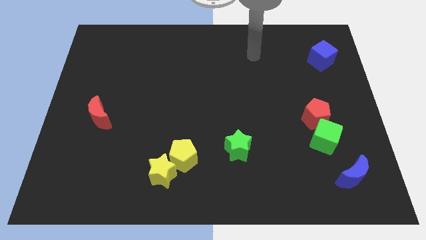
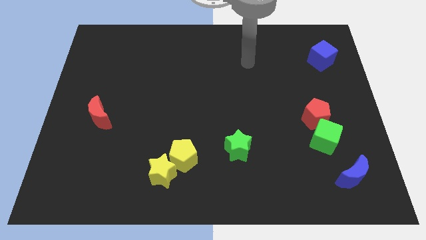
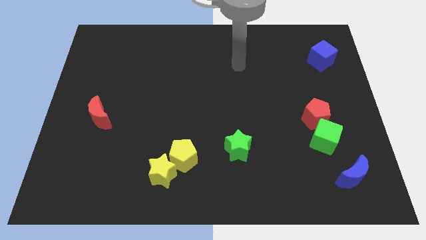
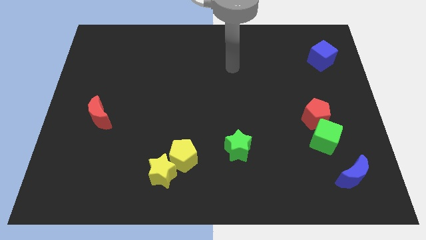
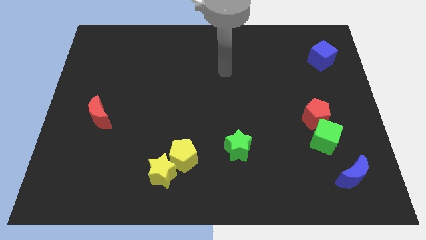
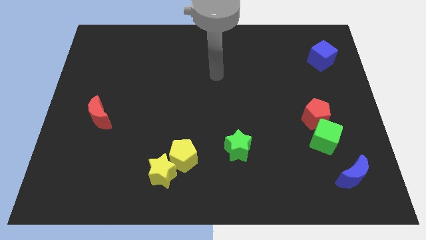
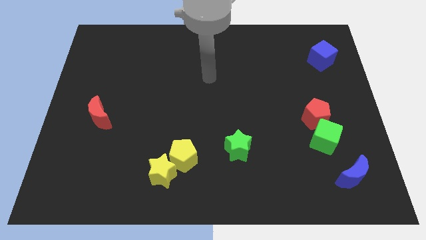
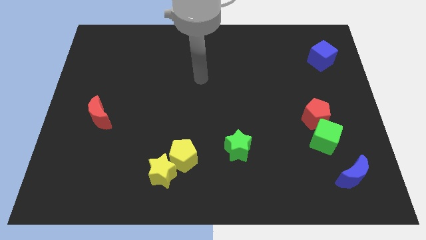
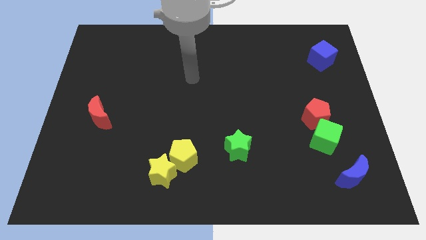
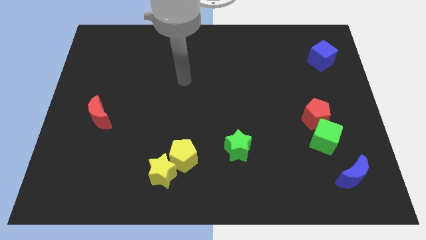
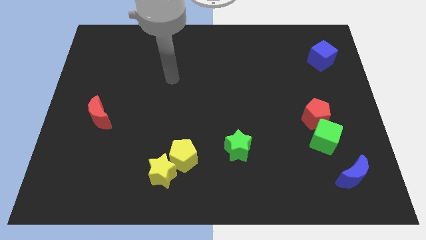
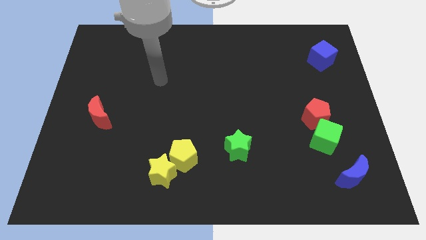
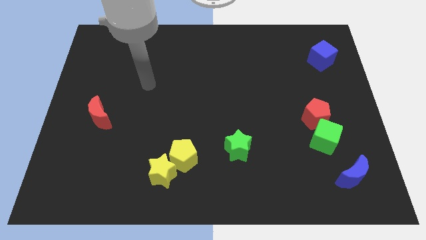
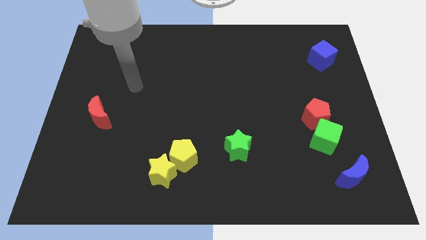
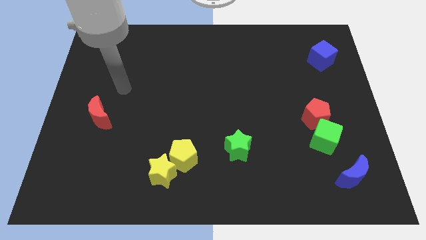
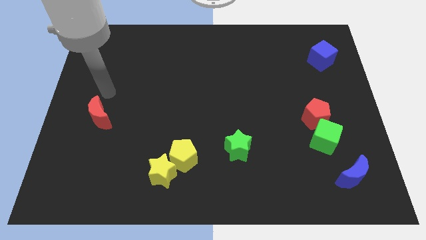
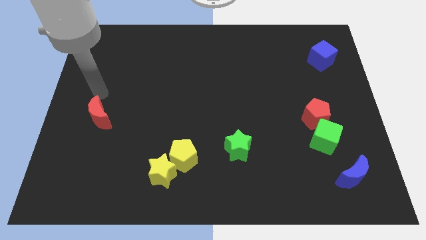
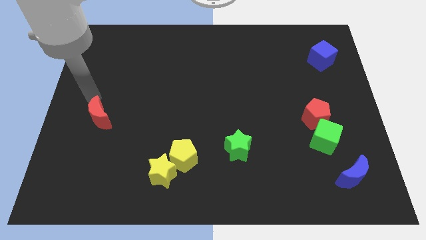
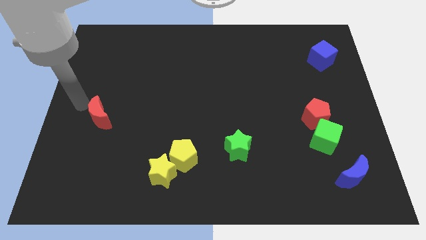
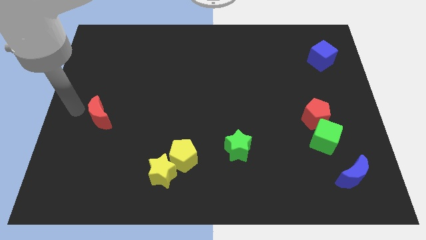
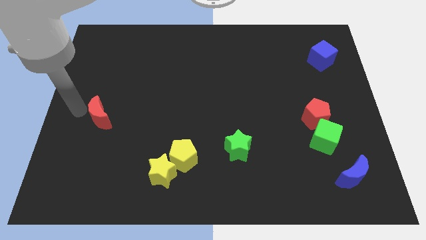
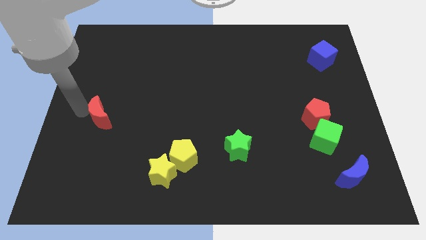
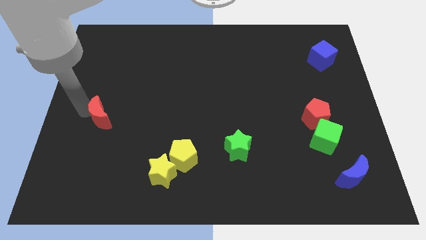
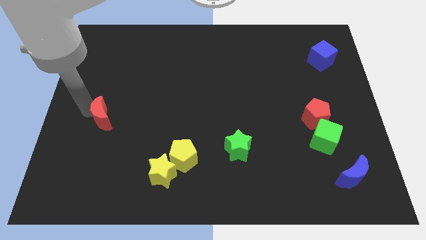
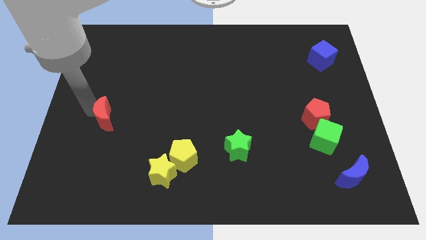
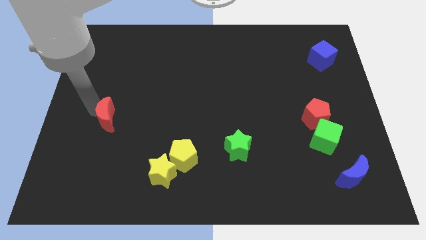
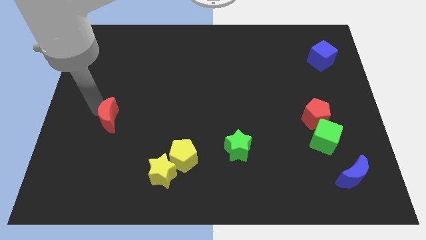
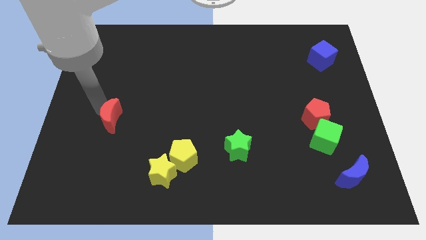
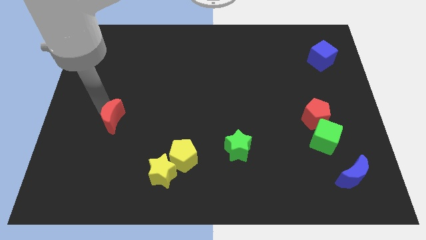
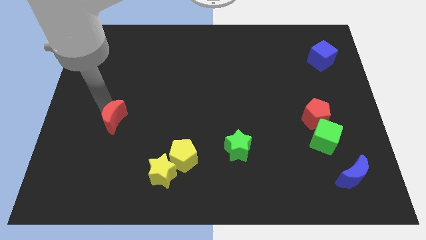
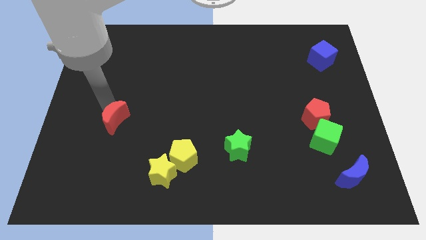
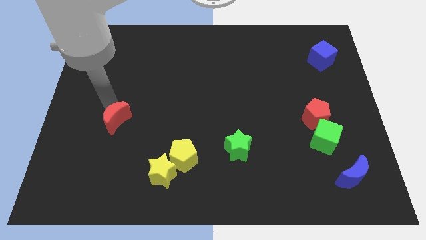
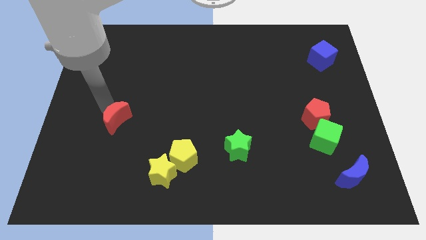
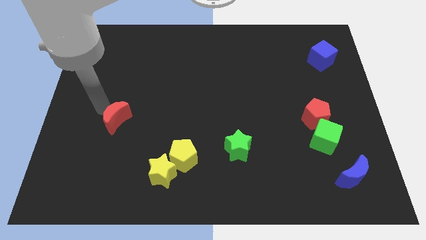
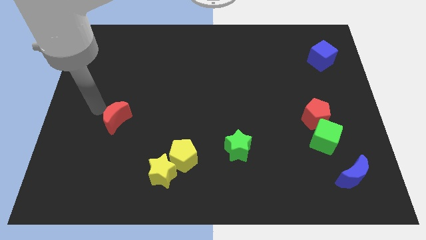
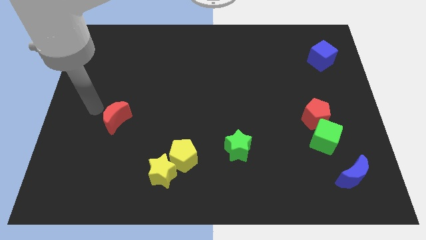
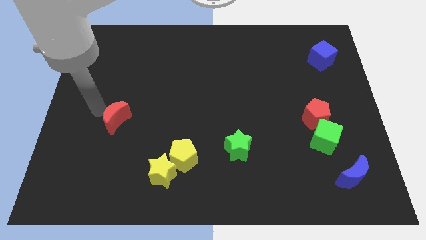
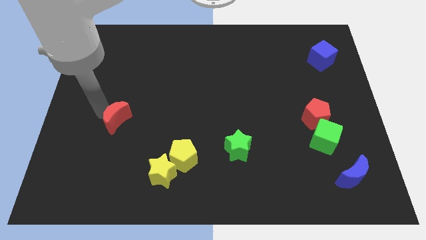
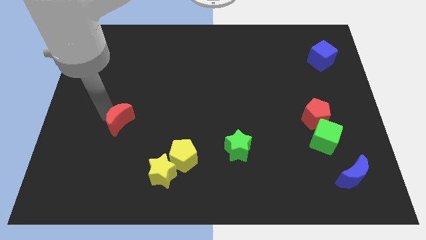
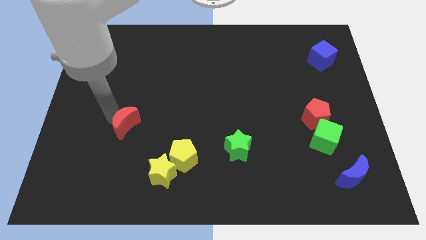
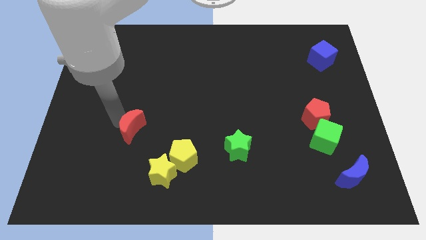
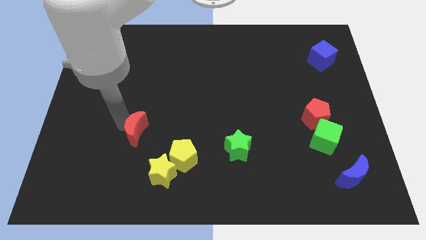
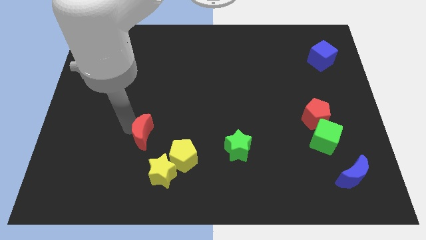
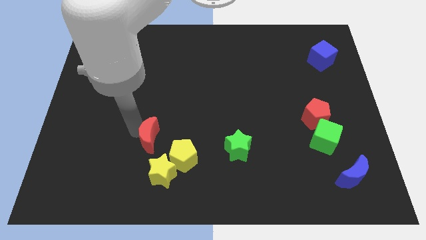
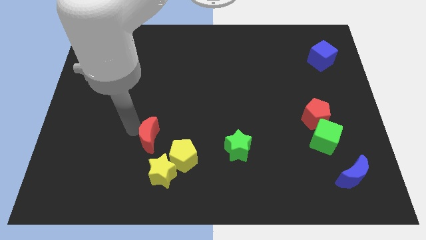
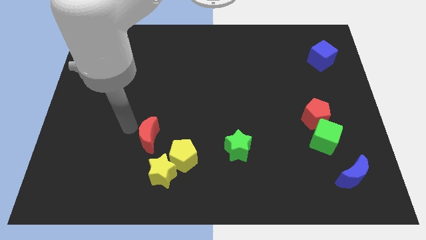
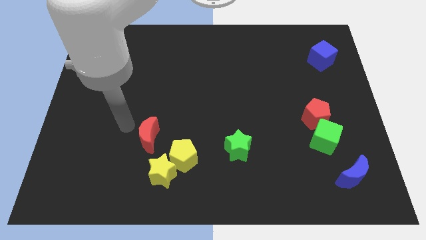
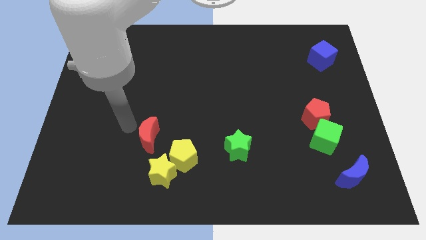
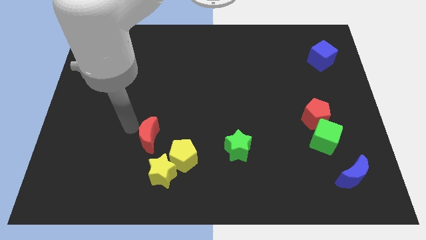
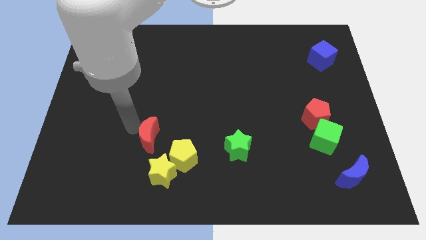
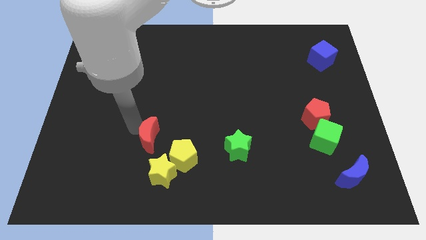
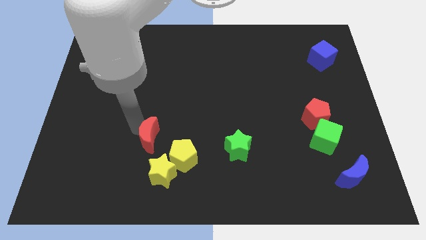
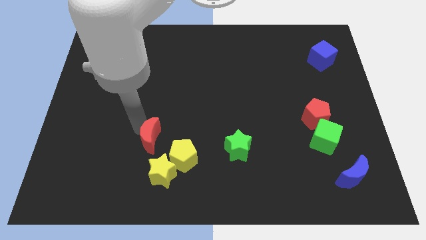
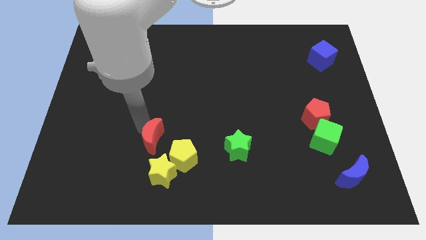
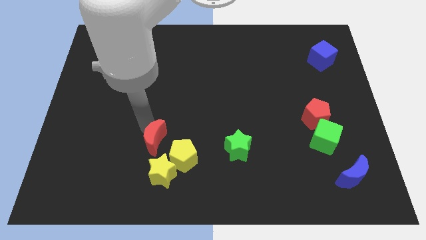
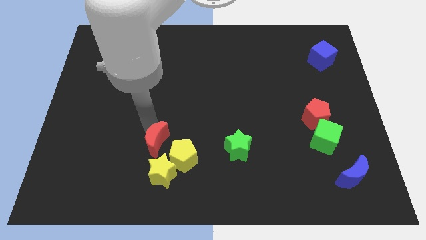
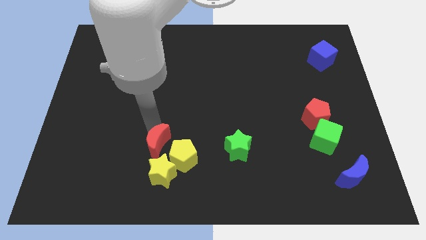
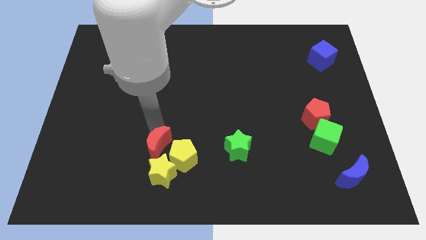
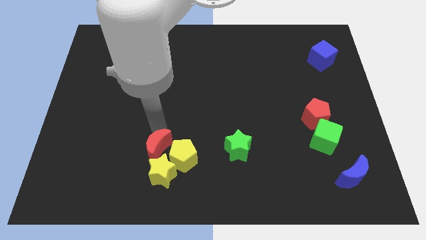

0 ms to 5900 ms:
slide the red moon close to the yellow pentagon

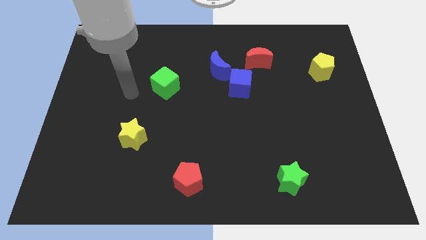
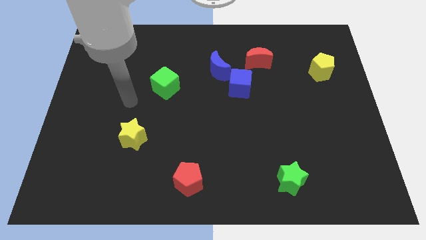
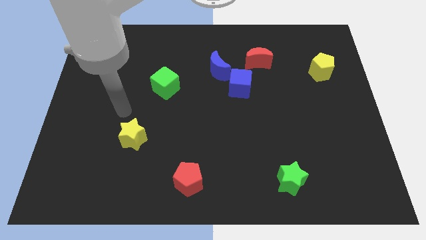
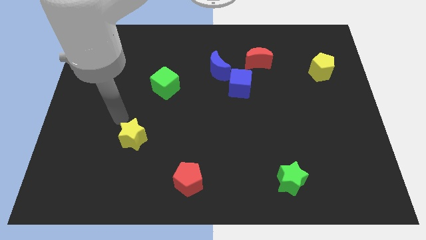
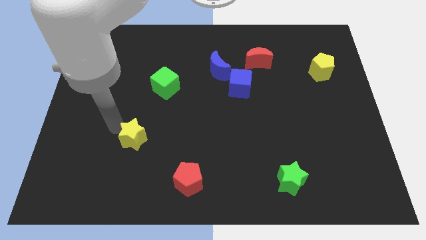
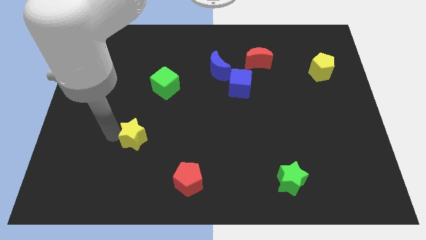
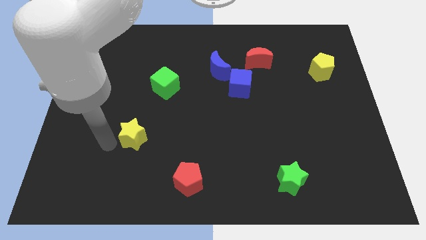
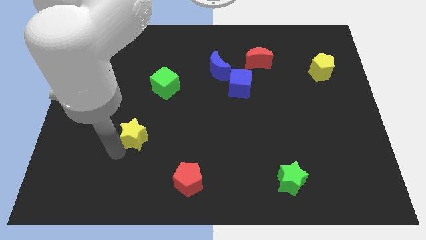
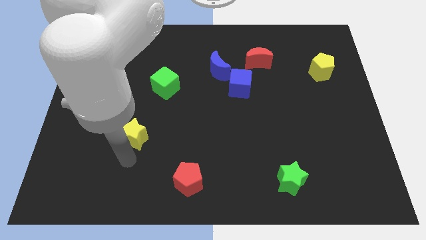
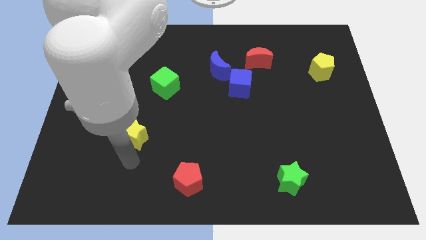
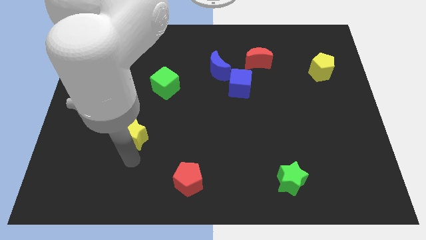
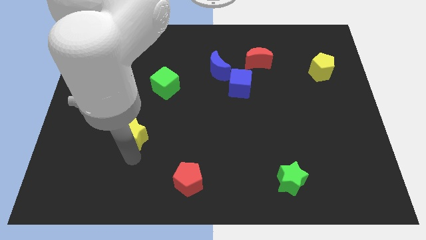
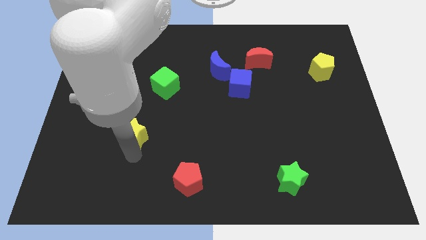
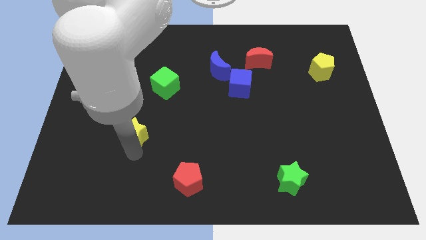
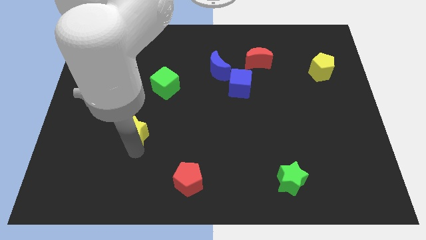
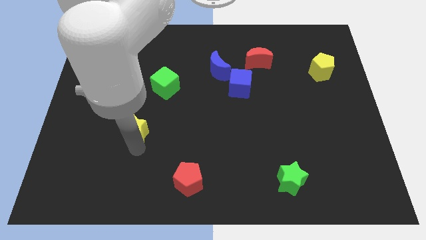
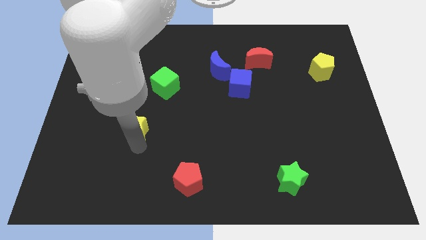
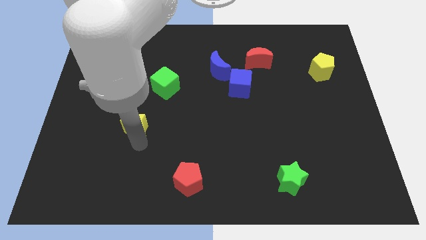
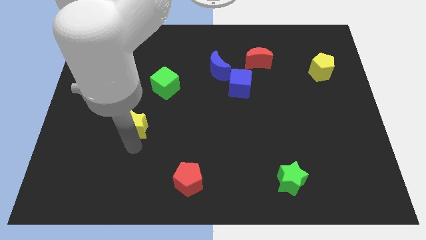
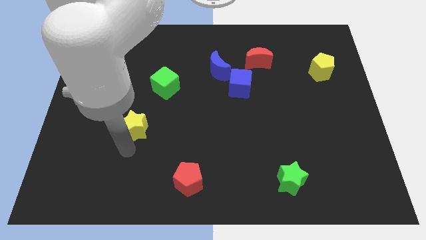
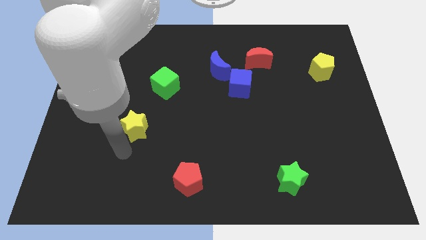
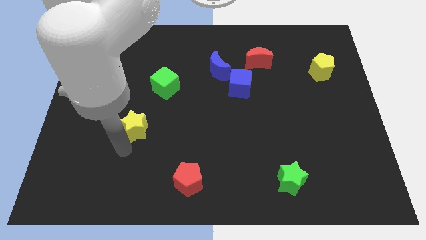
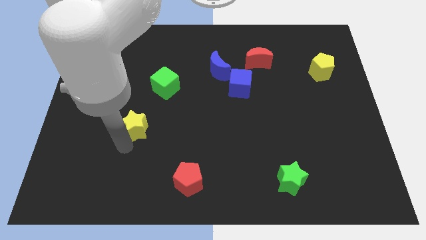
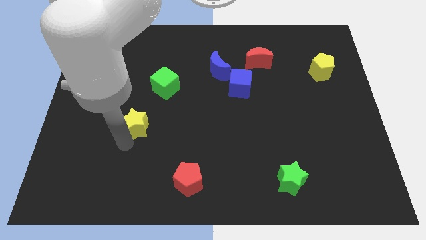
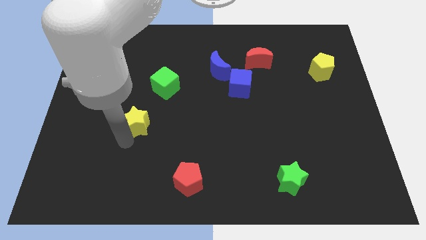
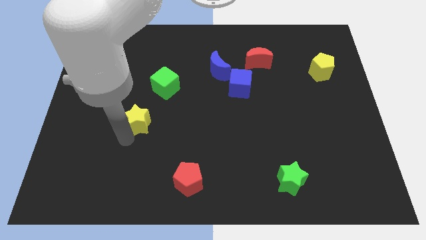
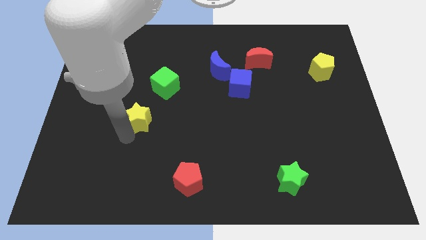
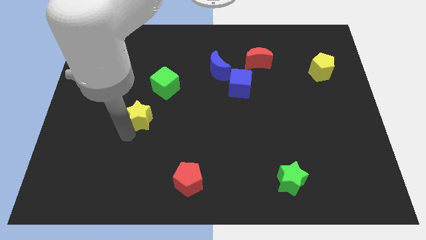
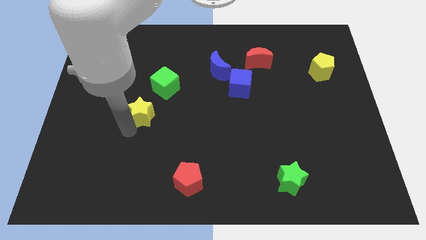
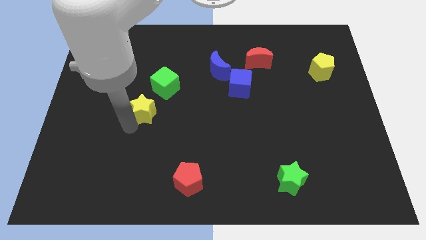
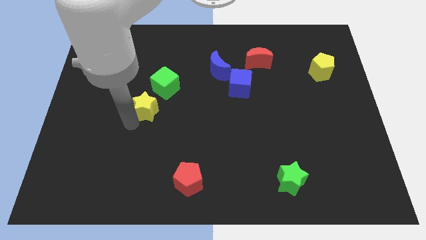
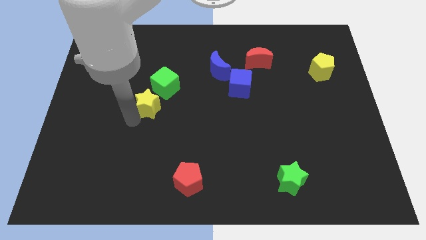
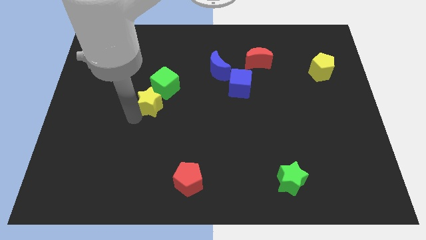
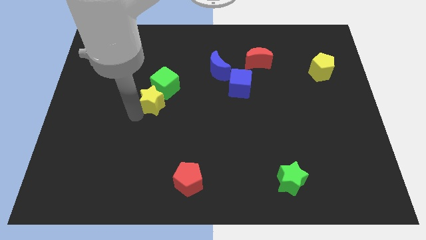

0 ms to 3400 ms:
move the yellow star next to the green cube
